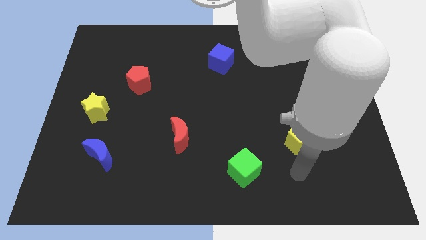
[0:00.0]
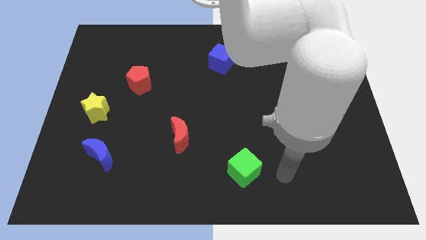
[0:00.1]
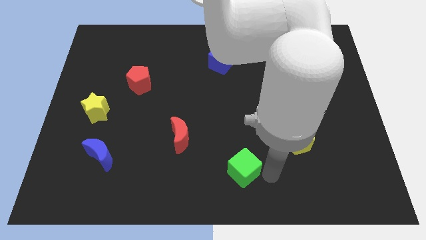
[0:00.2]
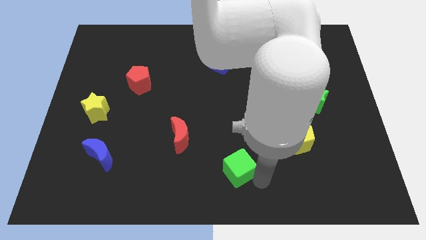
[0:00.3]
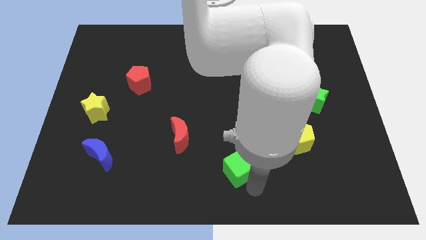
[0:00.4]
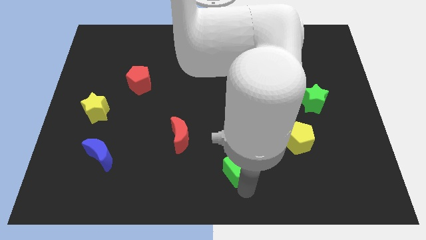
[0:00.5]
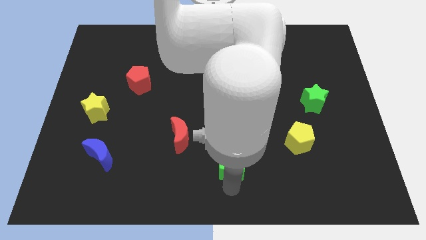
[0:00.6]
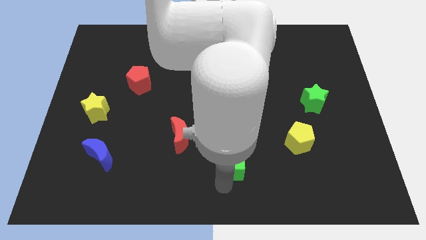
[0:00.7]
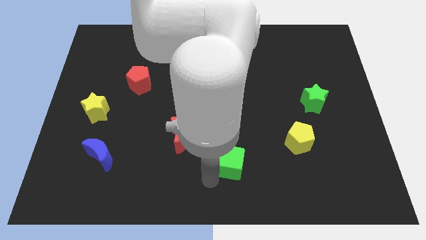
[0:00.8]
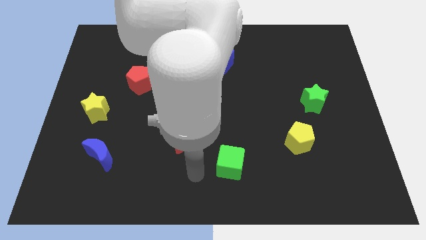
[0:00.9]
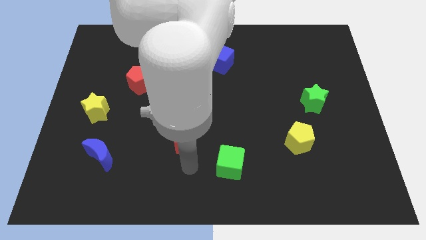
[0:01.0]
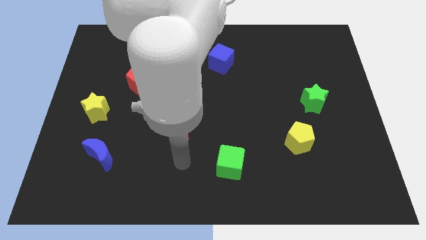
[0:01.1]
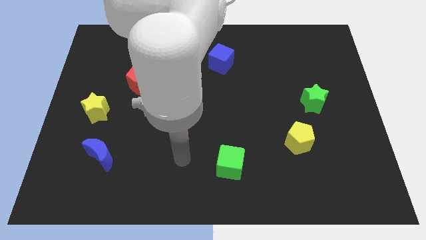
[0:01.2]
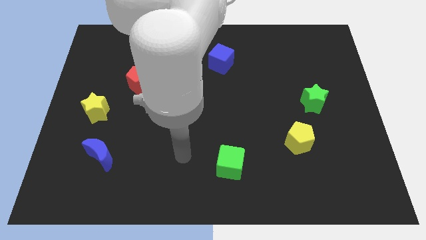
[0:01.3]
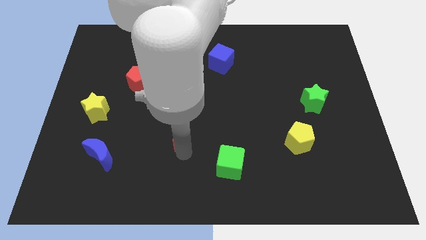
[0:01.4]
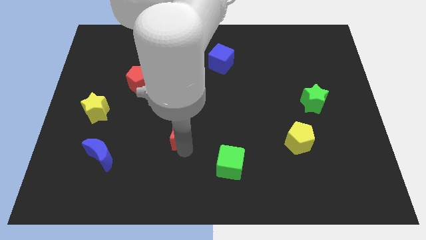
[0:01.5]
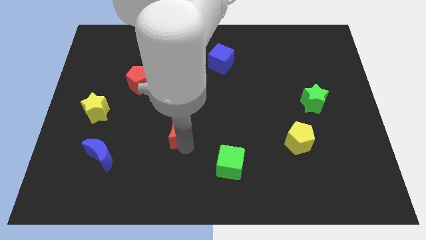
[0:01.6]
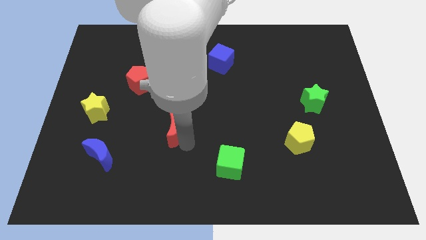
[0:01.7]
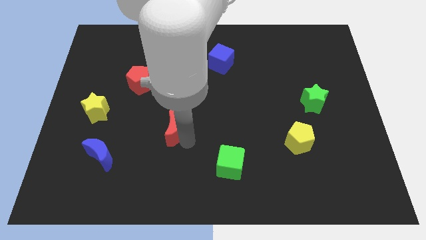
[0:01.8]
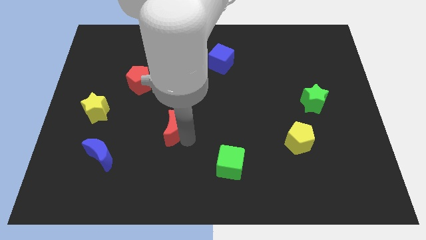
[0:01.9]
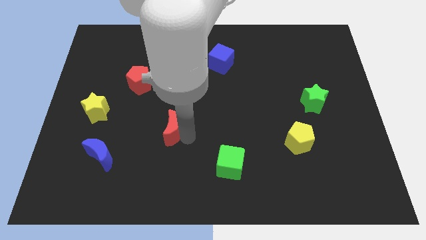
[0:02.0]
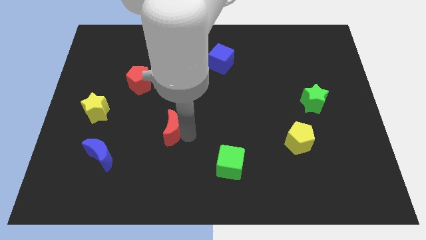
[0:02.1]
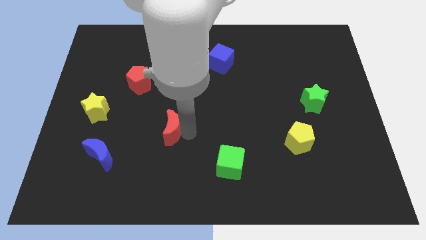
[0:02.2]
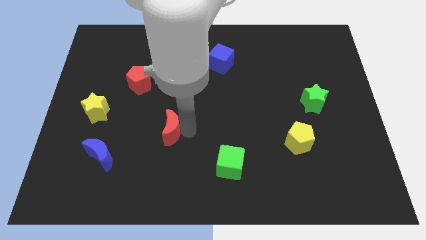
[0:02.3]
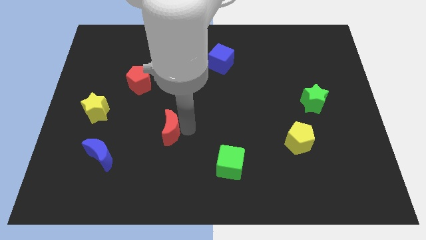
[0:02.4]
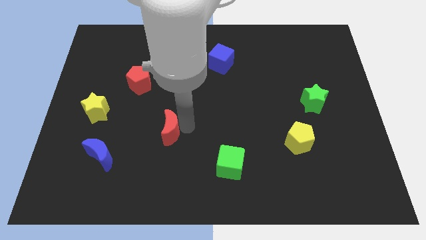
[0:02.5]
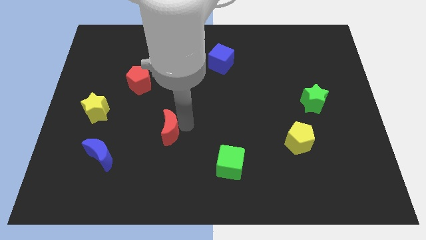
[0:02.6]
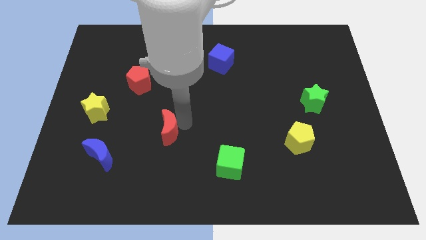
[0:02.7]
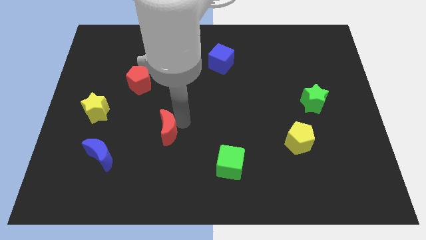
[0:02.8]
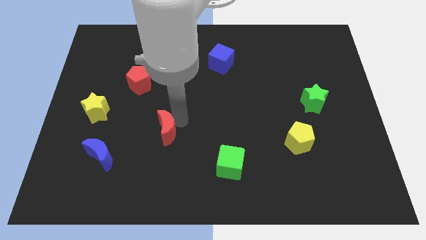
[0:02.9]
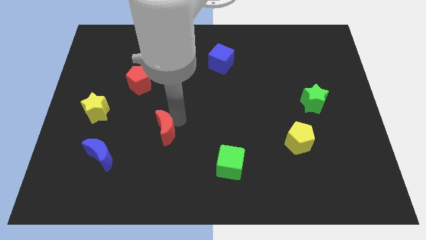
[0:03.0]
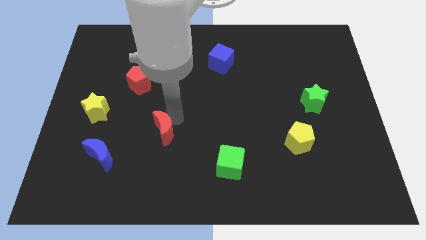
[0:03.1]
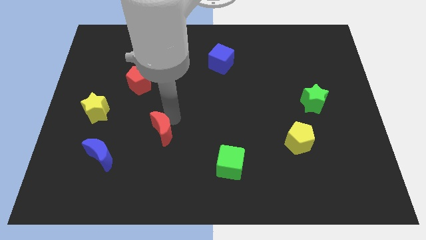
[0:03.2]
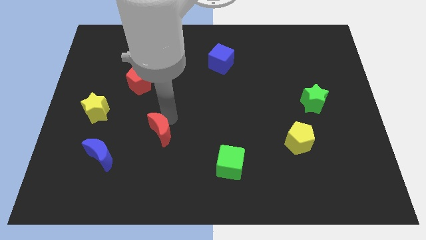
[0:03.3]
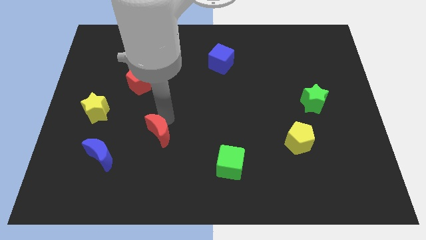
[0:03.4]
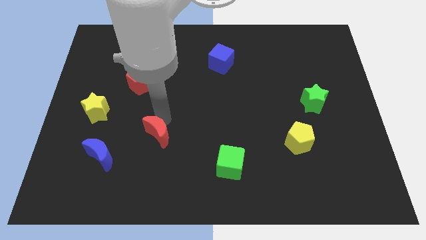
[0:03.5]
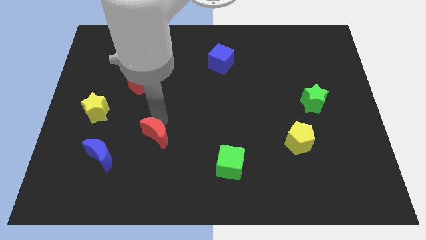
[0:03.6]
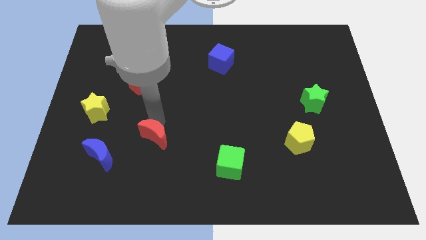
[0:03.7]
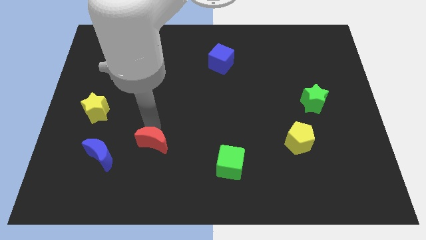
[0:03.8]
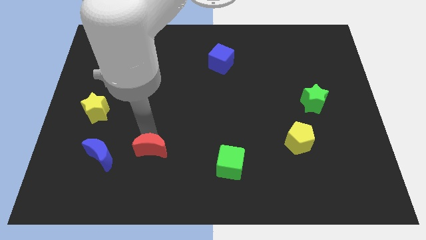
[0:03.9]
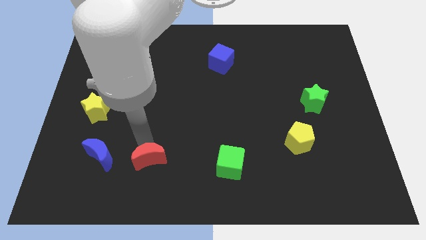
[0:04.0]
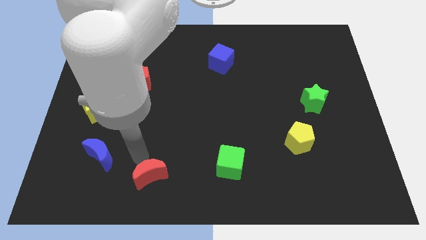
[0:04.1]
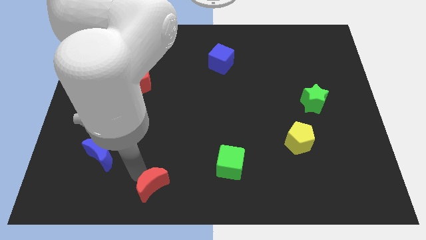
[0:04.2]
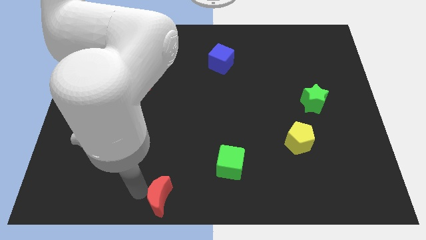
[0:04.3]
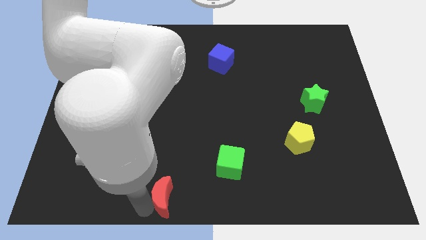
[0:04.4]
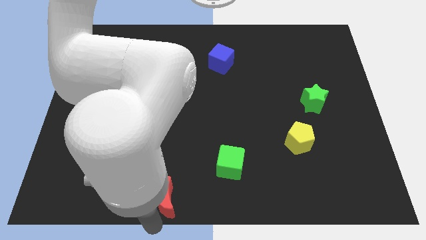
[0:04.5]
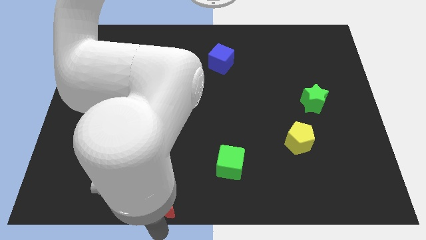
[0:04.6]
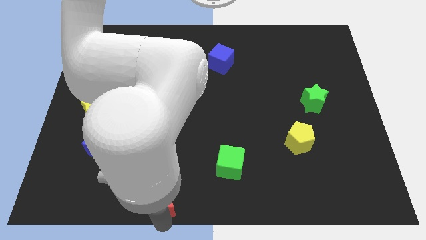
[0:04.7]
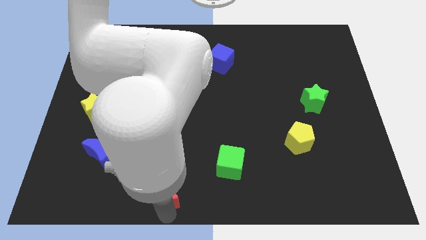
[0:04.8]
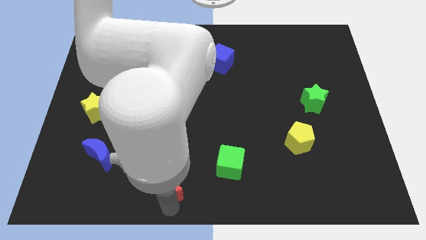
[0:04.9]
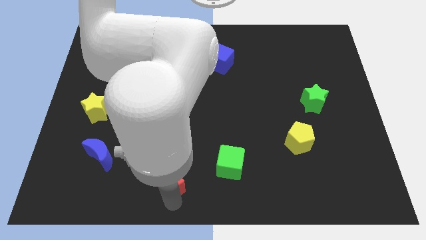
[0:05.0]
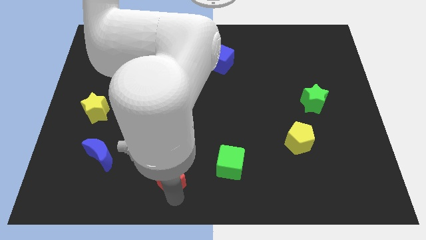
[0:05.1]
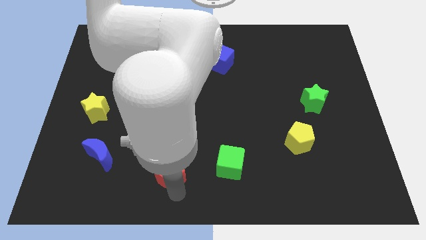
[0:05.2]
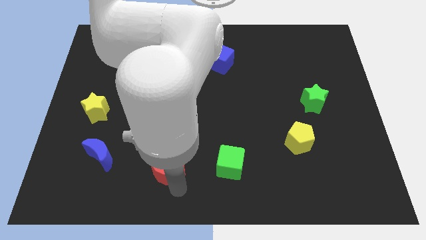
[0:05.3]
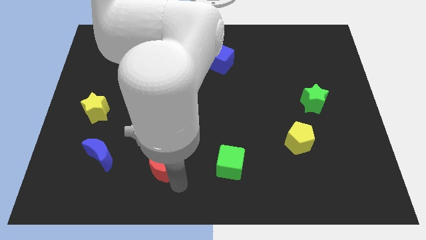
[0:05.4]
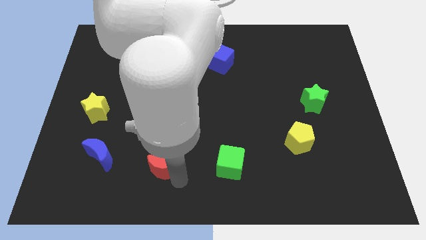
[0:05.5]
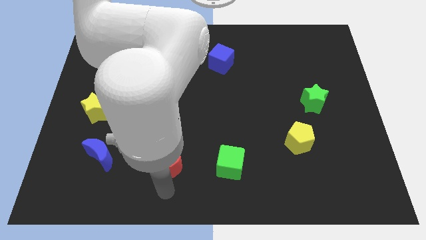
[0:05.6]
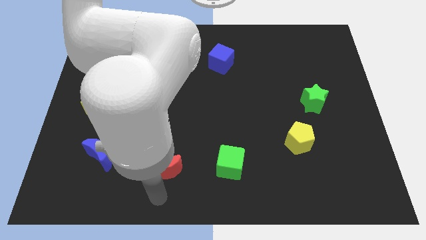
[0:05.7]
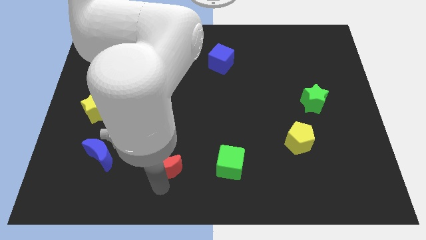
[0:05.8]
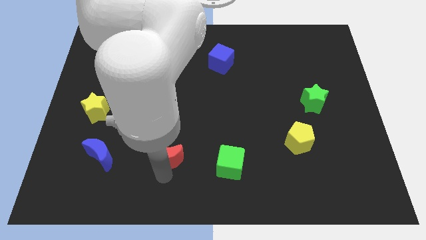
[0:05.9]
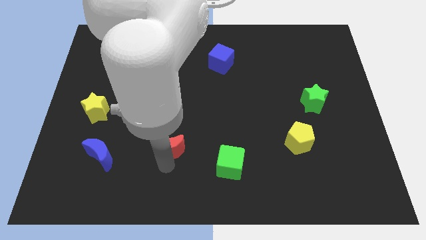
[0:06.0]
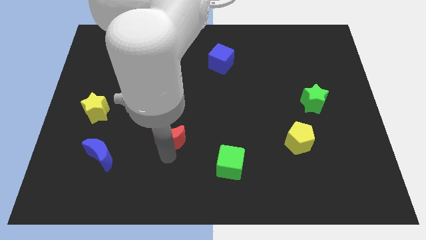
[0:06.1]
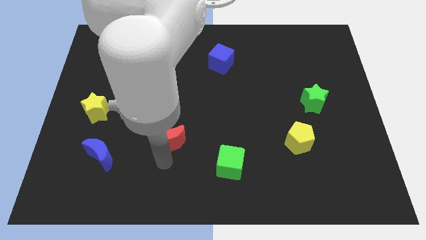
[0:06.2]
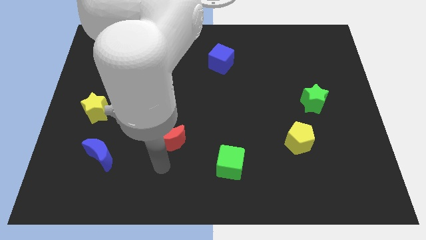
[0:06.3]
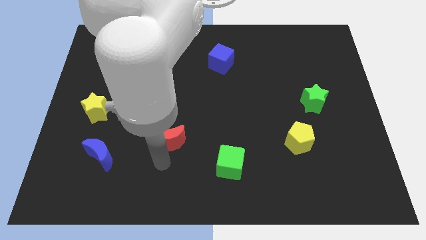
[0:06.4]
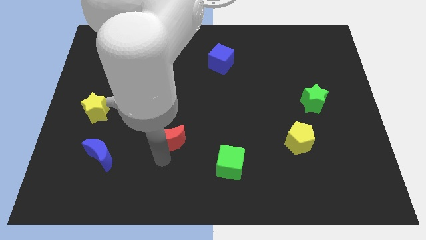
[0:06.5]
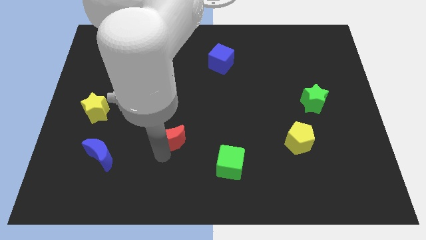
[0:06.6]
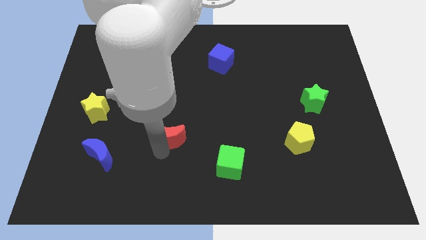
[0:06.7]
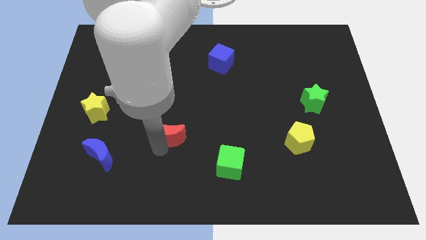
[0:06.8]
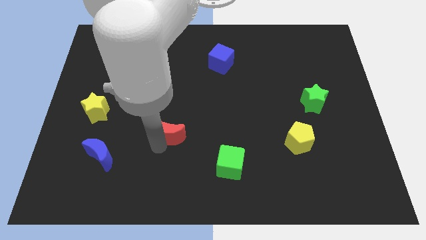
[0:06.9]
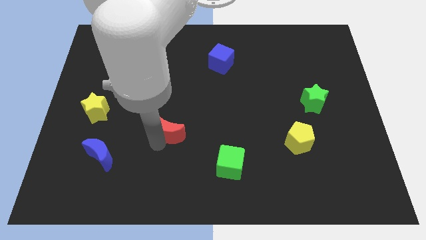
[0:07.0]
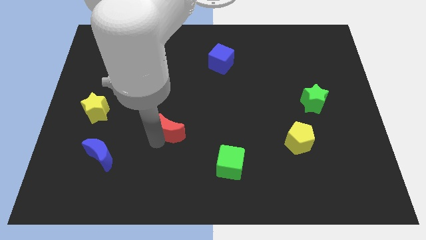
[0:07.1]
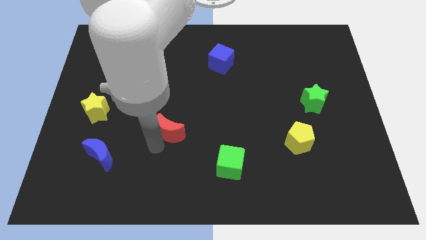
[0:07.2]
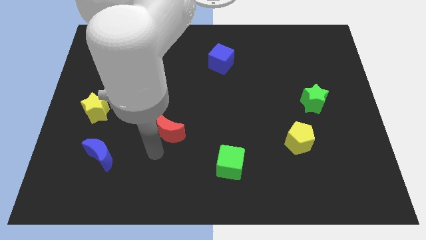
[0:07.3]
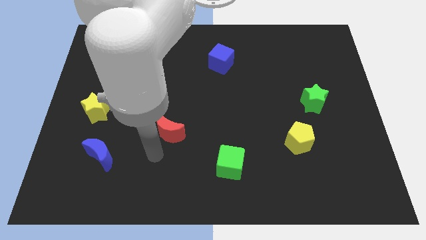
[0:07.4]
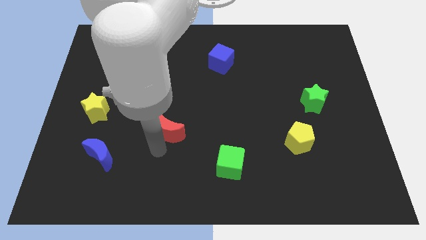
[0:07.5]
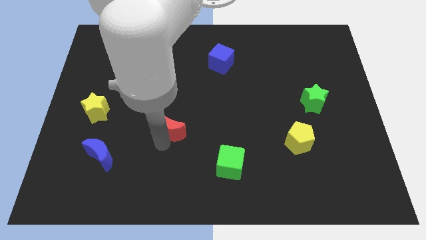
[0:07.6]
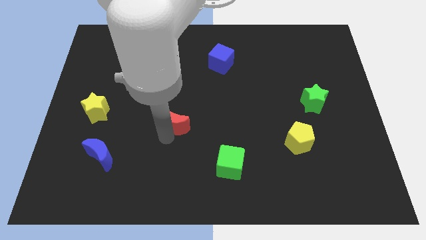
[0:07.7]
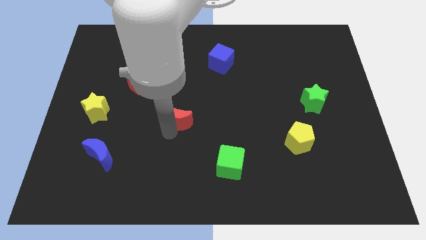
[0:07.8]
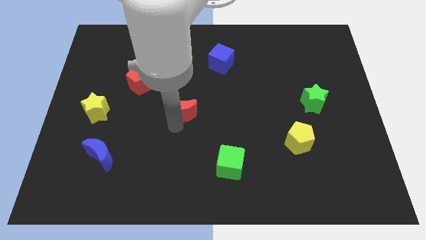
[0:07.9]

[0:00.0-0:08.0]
slide the red moon a bit upwards
